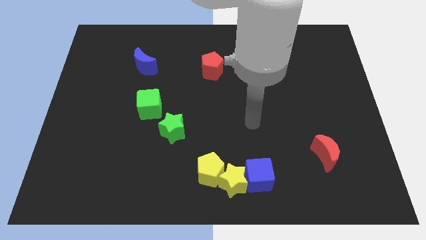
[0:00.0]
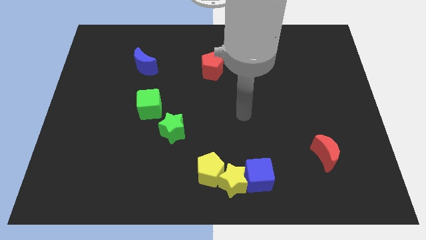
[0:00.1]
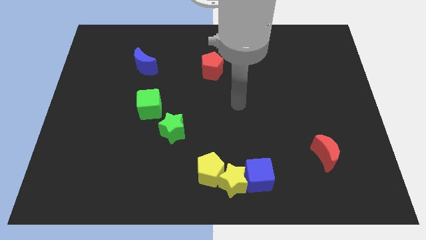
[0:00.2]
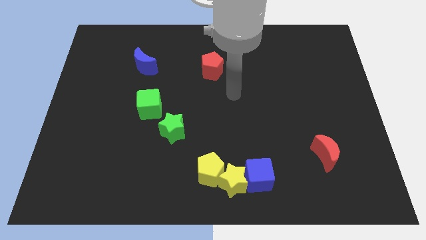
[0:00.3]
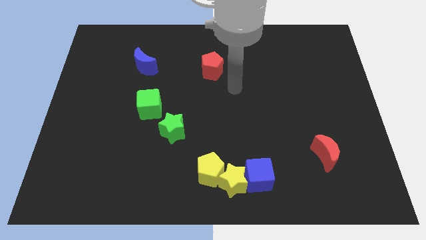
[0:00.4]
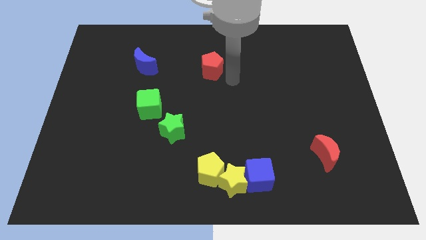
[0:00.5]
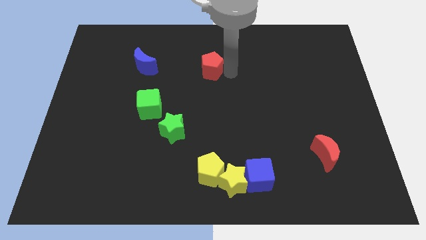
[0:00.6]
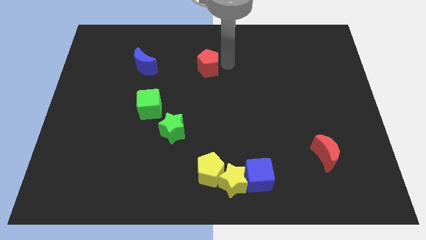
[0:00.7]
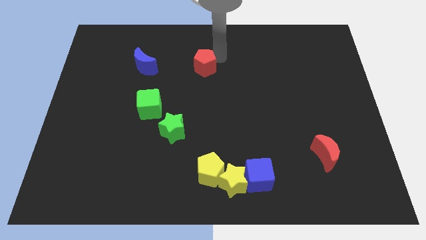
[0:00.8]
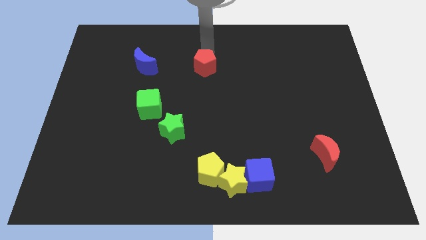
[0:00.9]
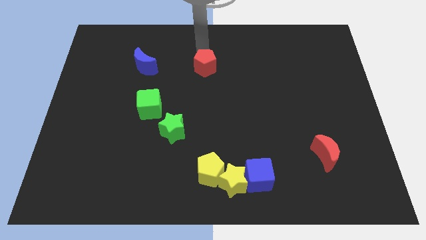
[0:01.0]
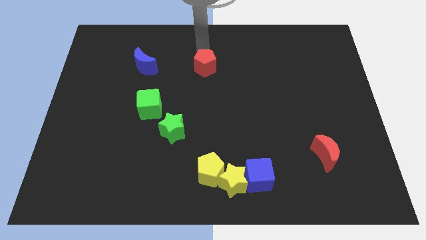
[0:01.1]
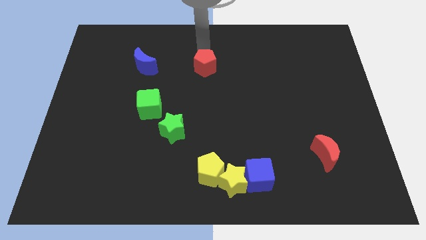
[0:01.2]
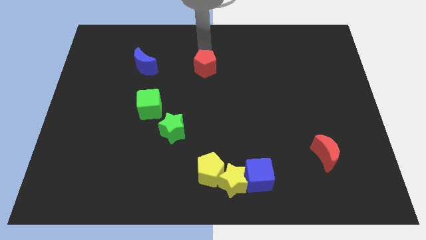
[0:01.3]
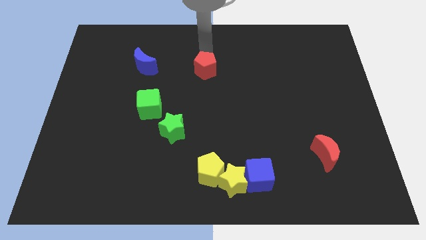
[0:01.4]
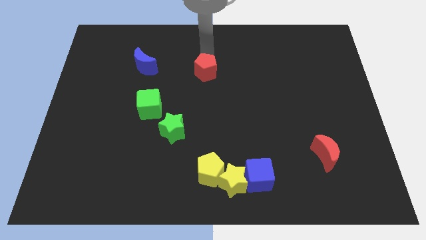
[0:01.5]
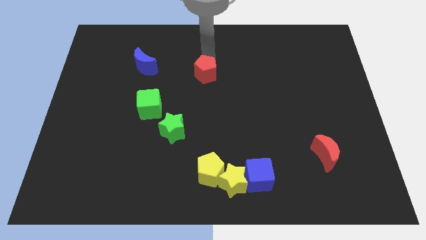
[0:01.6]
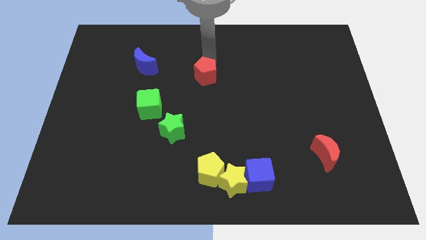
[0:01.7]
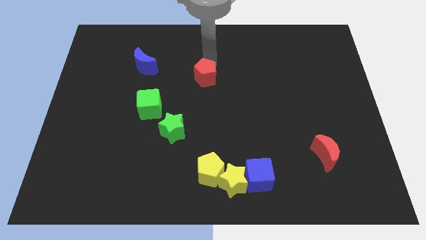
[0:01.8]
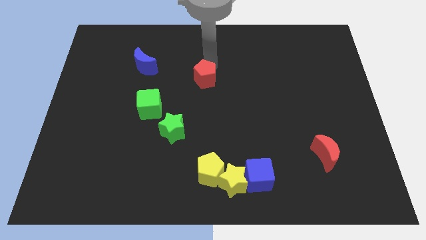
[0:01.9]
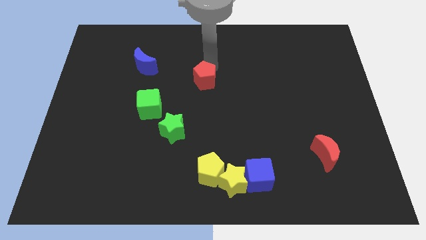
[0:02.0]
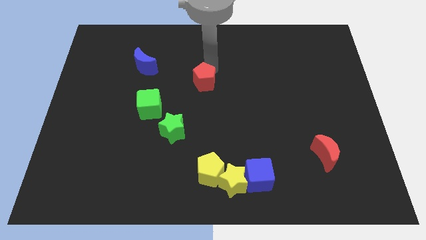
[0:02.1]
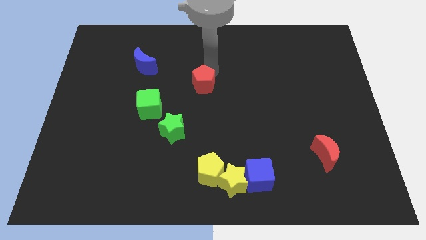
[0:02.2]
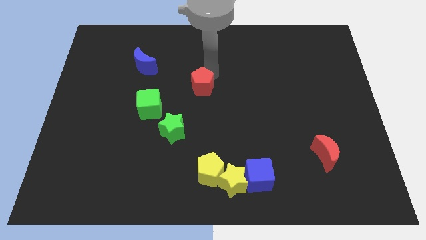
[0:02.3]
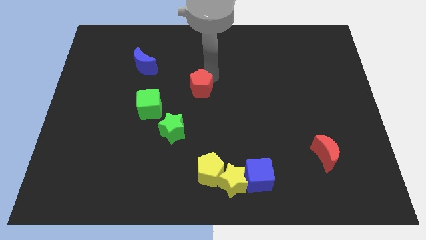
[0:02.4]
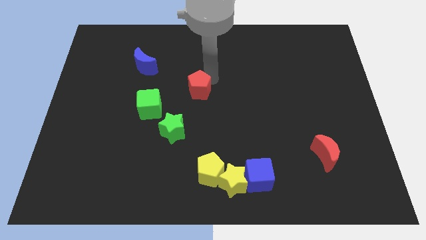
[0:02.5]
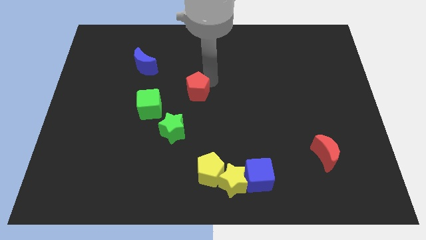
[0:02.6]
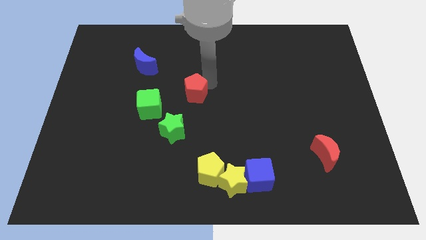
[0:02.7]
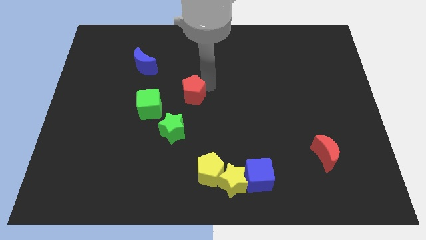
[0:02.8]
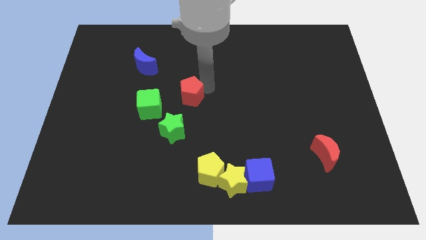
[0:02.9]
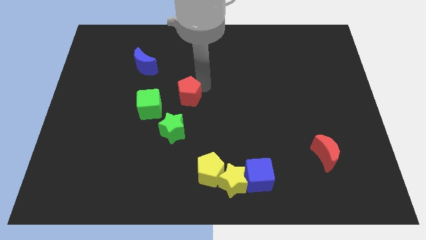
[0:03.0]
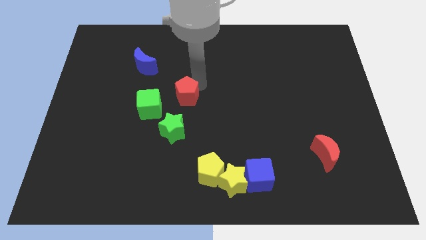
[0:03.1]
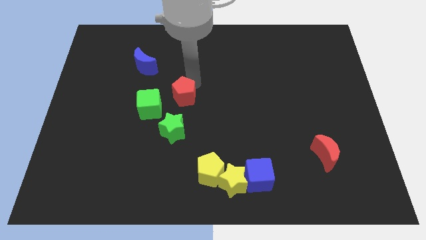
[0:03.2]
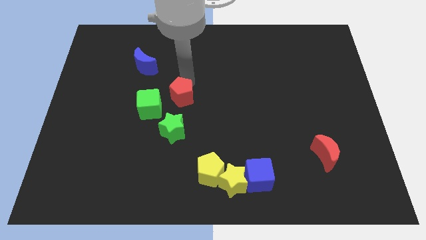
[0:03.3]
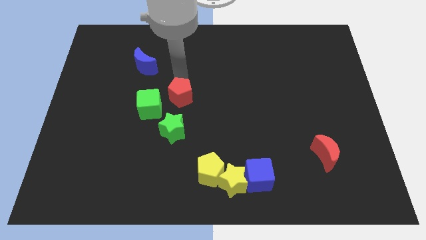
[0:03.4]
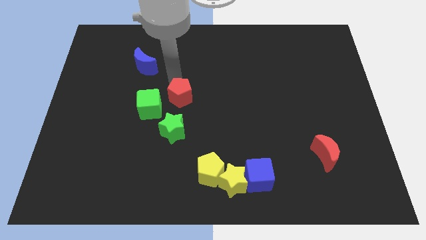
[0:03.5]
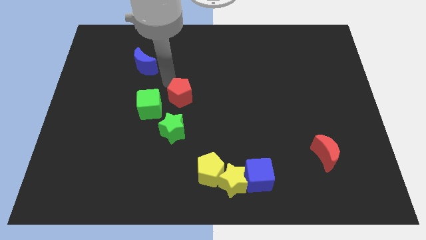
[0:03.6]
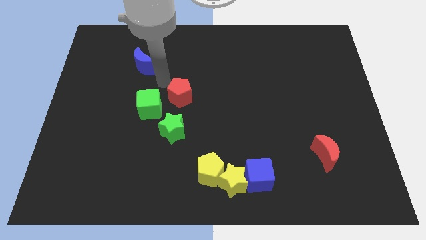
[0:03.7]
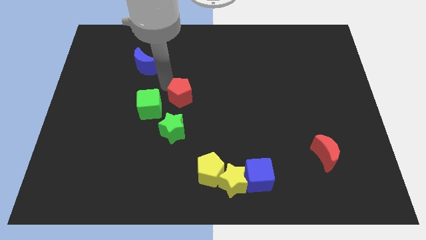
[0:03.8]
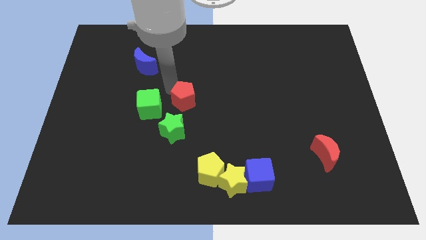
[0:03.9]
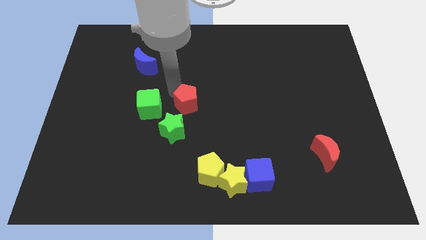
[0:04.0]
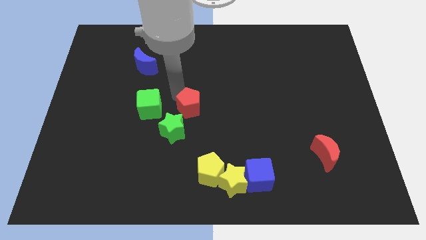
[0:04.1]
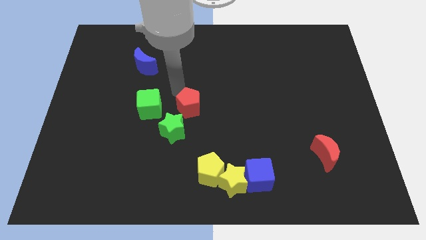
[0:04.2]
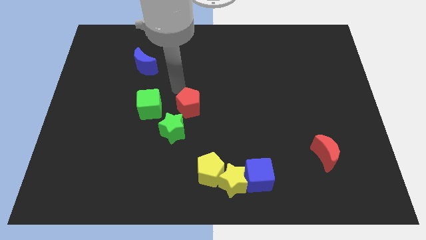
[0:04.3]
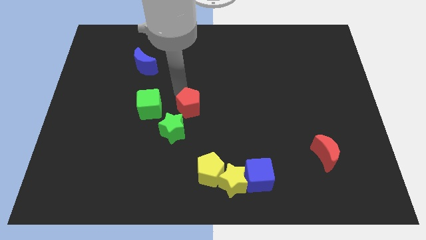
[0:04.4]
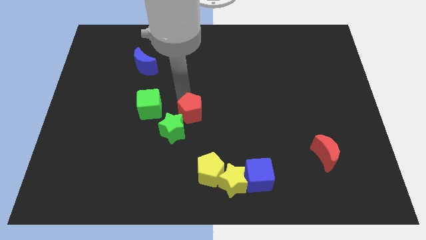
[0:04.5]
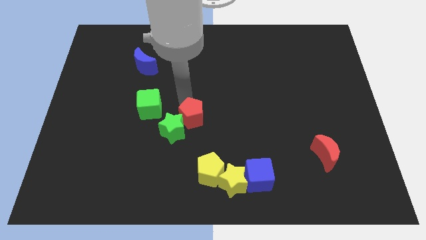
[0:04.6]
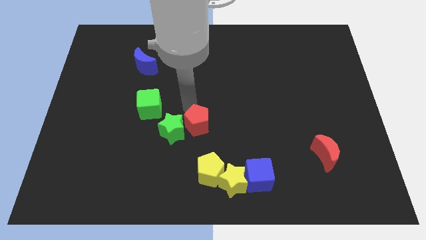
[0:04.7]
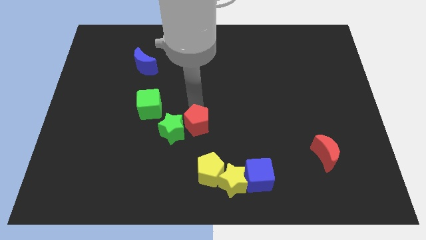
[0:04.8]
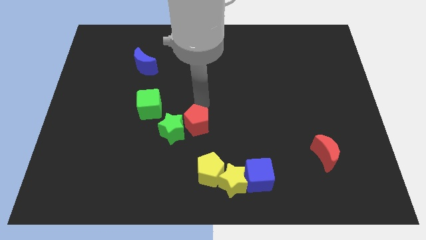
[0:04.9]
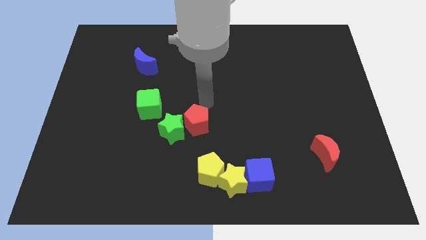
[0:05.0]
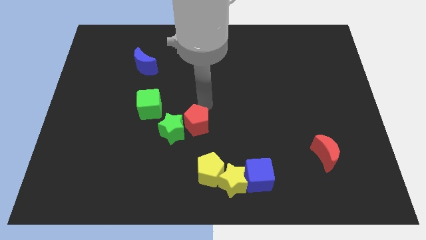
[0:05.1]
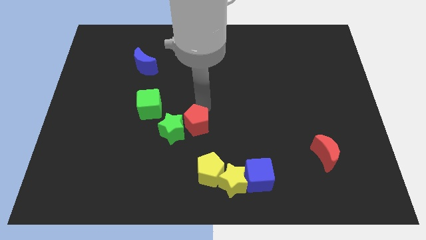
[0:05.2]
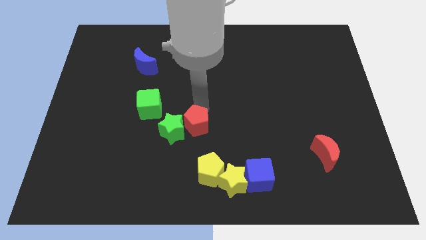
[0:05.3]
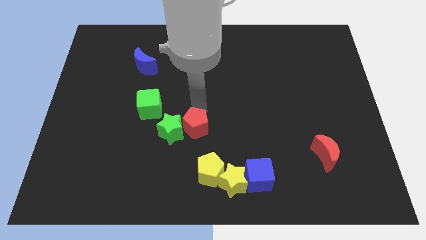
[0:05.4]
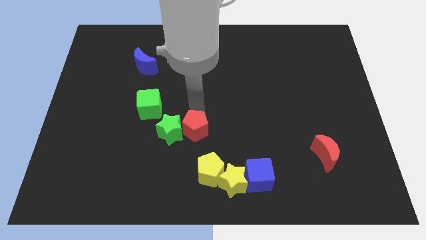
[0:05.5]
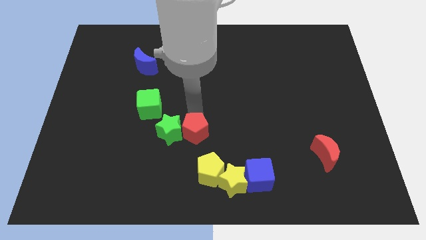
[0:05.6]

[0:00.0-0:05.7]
slide the red pentagon to the top left side of the yellow pentagon

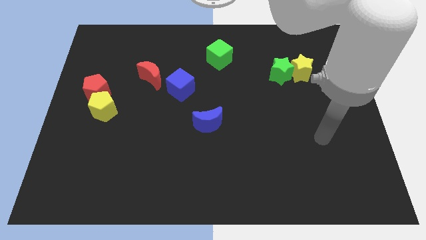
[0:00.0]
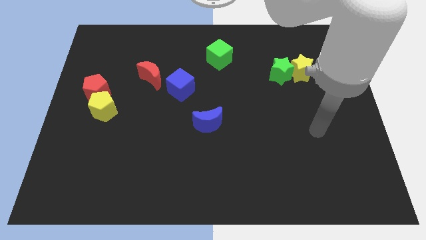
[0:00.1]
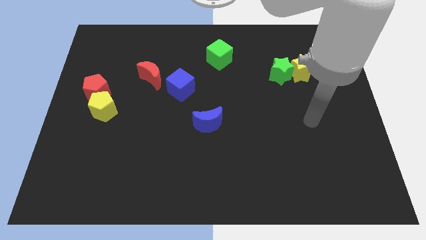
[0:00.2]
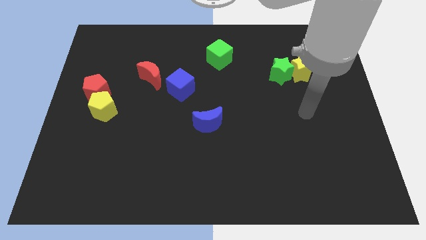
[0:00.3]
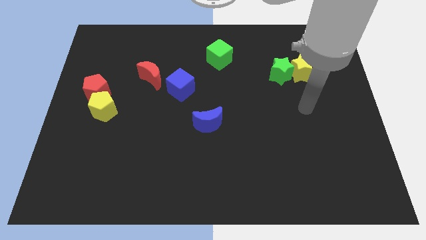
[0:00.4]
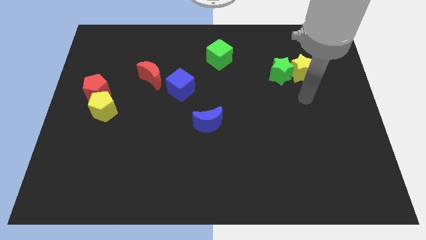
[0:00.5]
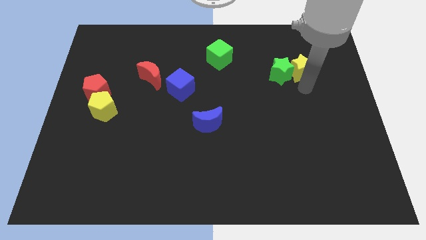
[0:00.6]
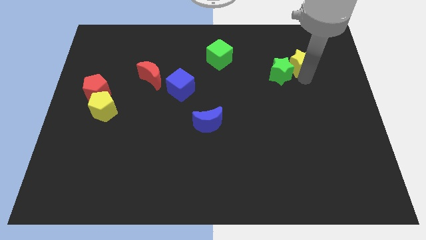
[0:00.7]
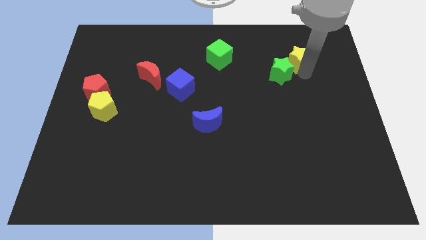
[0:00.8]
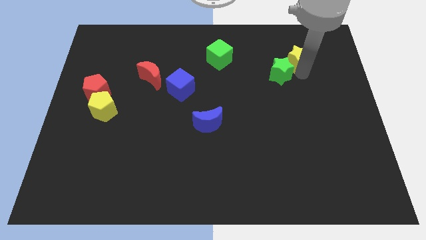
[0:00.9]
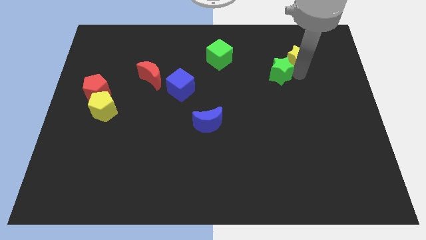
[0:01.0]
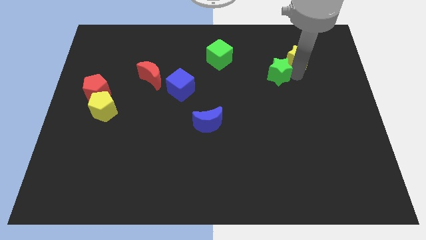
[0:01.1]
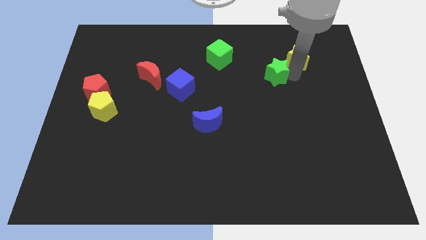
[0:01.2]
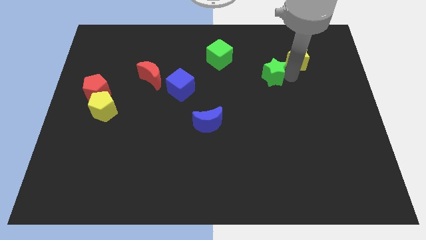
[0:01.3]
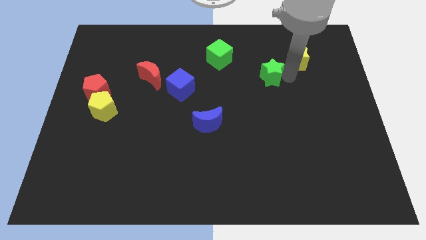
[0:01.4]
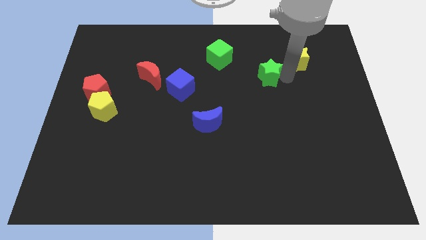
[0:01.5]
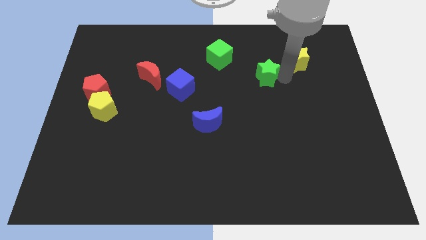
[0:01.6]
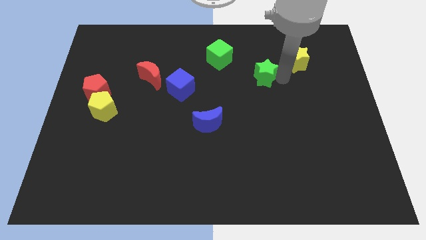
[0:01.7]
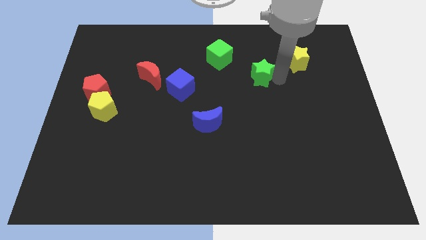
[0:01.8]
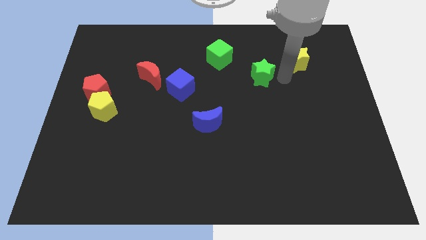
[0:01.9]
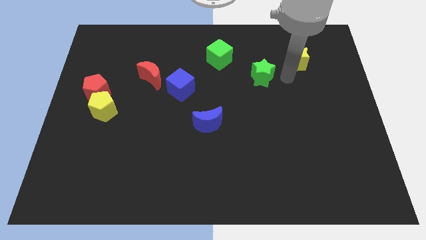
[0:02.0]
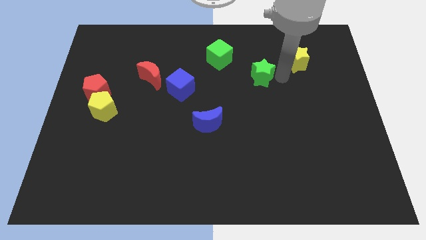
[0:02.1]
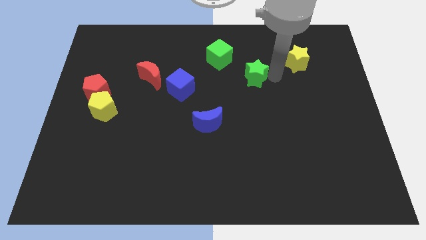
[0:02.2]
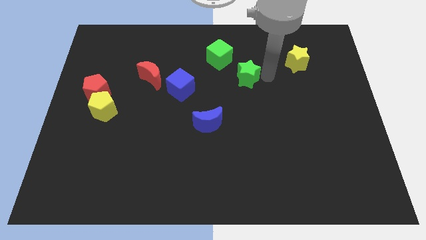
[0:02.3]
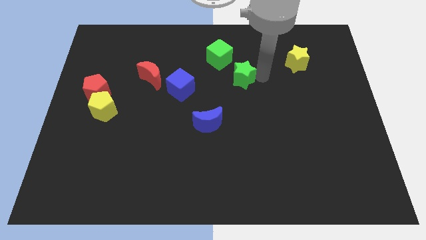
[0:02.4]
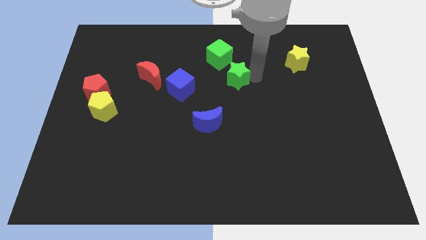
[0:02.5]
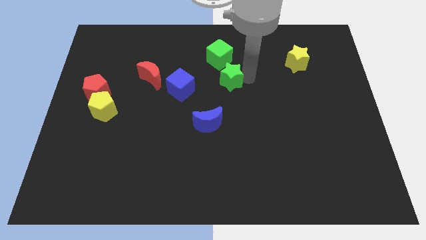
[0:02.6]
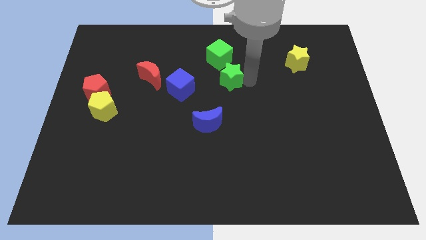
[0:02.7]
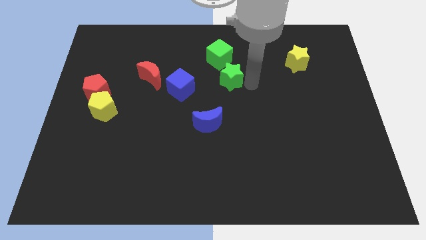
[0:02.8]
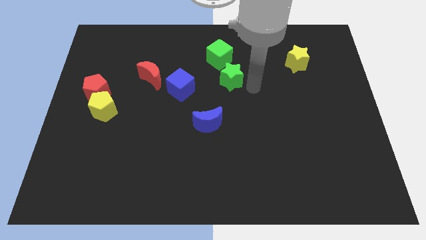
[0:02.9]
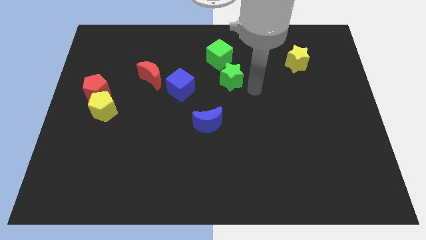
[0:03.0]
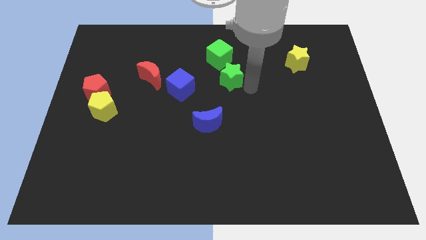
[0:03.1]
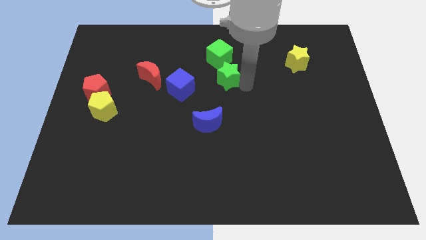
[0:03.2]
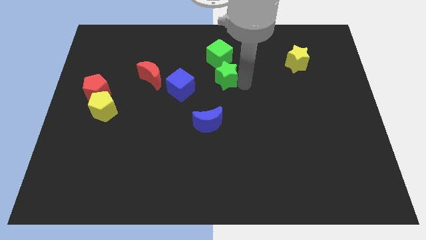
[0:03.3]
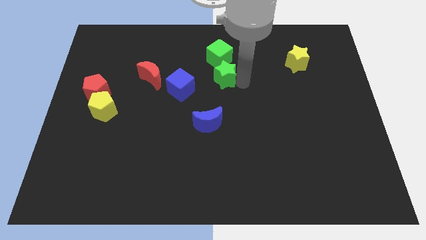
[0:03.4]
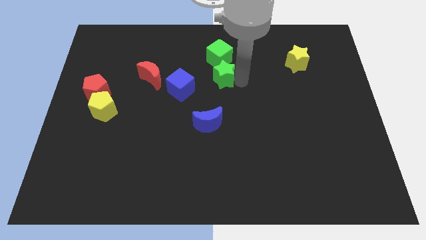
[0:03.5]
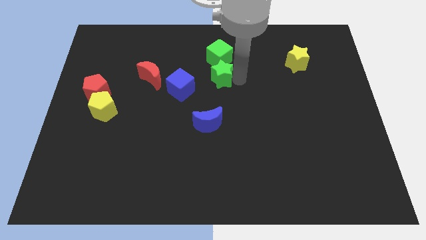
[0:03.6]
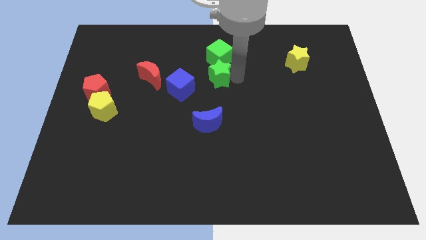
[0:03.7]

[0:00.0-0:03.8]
move the green star to the top right side of the blue cube
